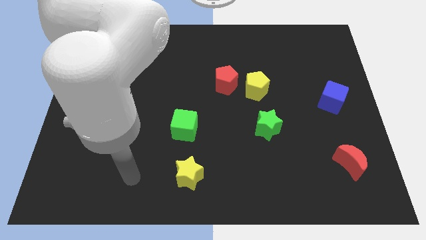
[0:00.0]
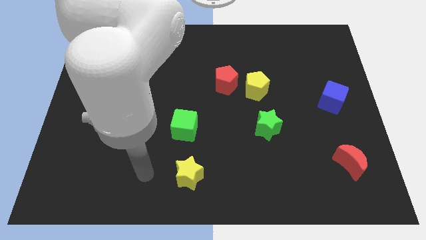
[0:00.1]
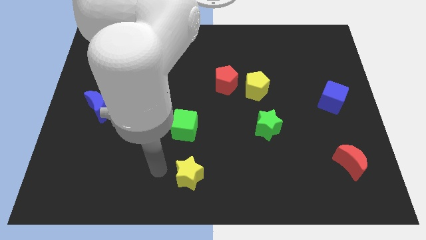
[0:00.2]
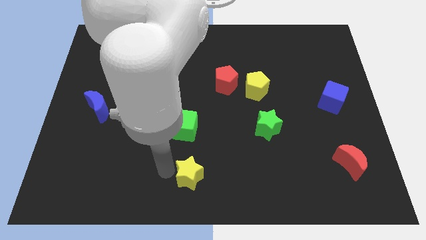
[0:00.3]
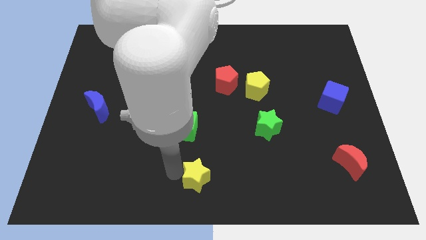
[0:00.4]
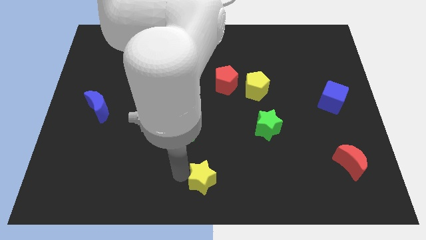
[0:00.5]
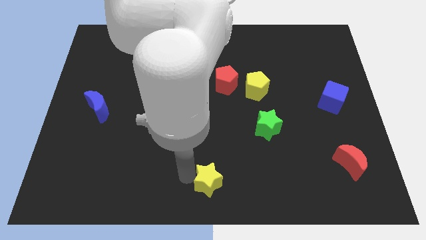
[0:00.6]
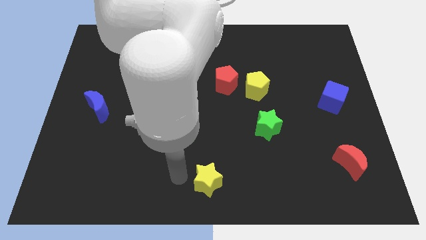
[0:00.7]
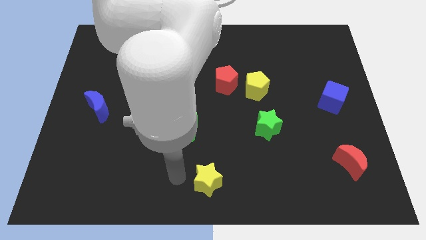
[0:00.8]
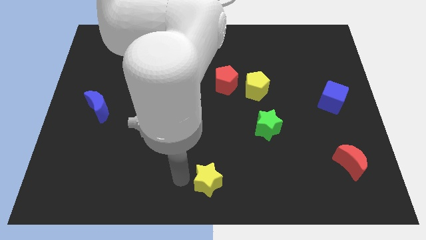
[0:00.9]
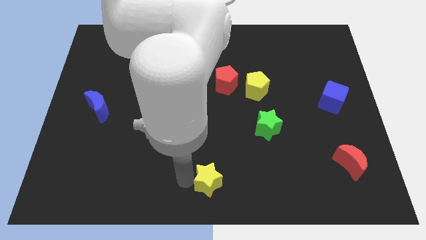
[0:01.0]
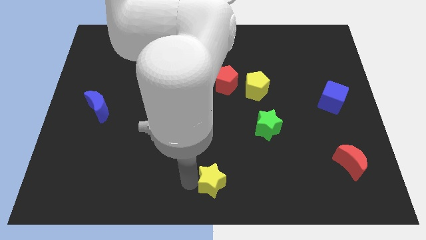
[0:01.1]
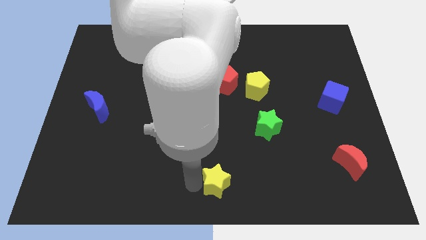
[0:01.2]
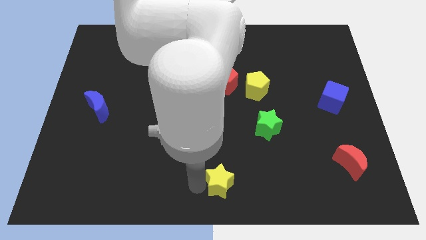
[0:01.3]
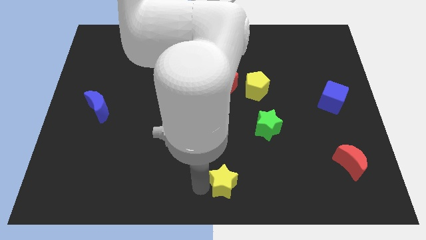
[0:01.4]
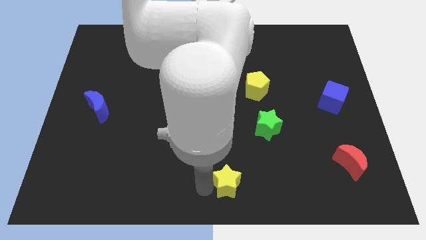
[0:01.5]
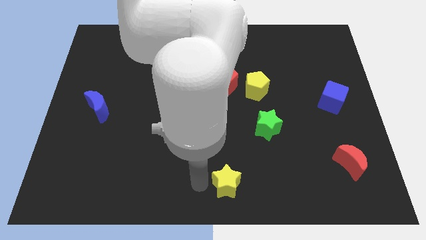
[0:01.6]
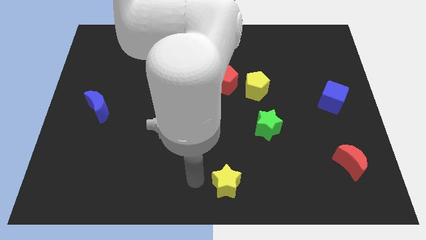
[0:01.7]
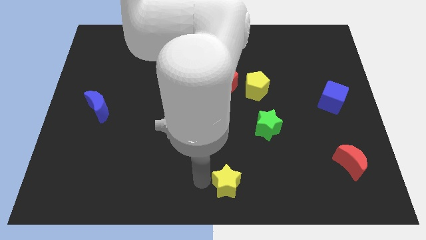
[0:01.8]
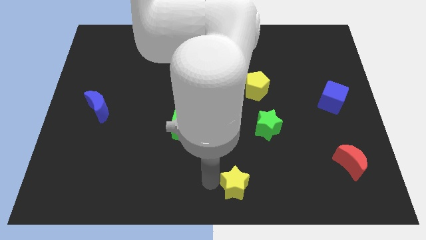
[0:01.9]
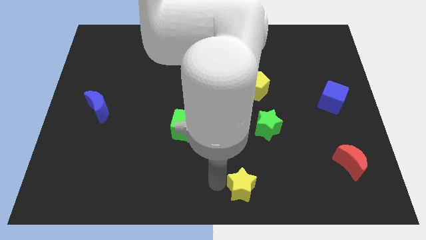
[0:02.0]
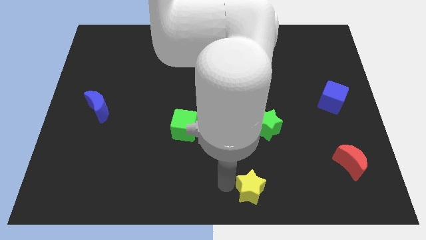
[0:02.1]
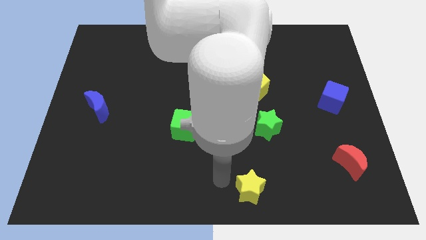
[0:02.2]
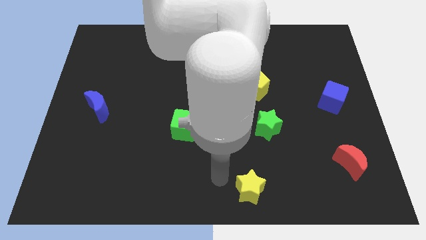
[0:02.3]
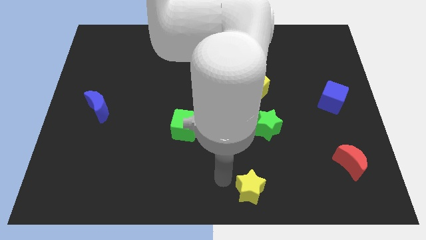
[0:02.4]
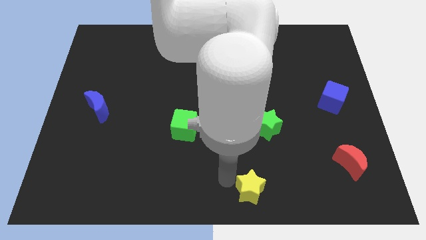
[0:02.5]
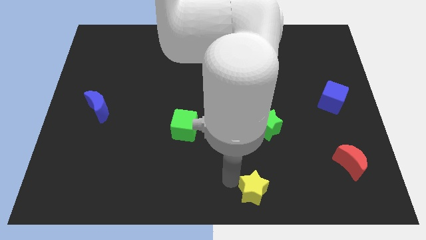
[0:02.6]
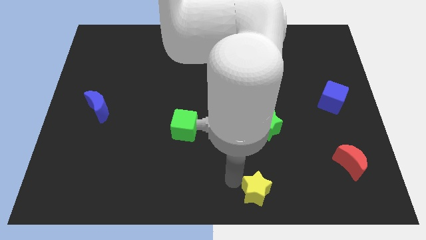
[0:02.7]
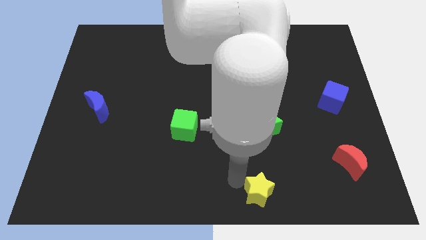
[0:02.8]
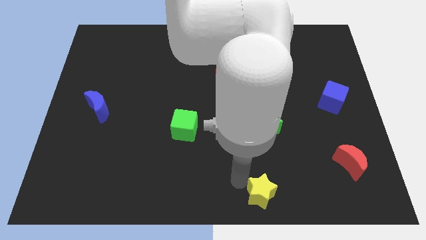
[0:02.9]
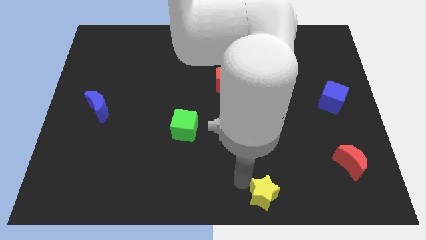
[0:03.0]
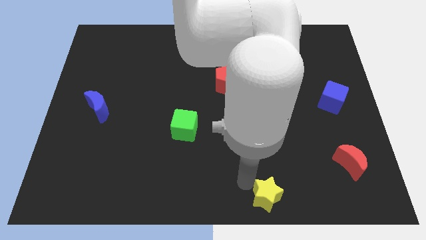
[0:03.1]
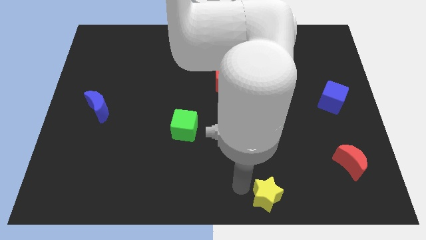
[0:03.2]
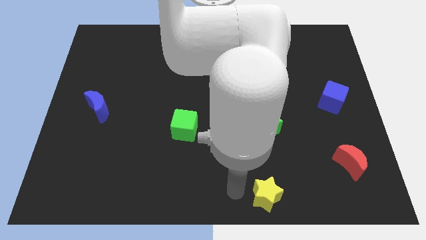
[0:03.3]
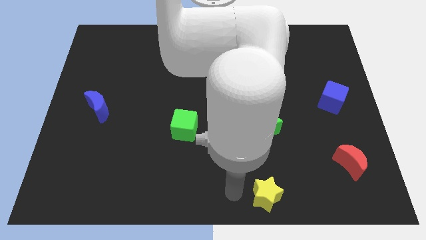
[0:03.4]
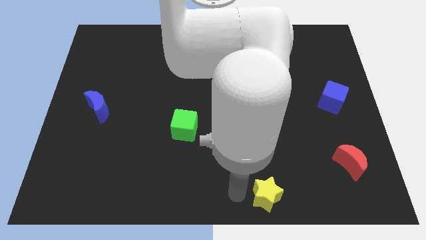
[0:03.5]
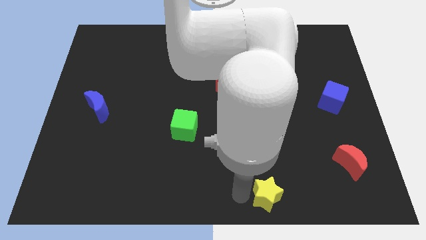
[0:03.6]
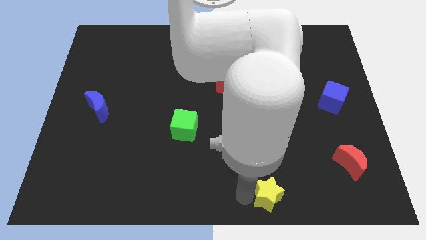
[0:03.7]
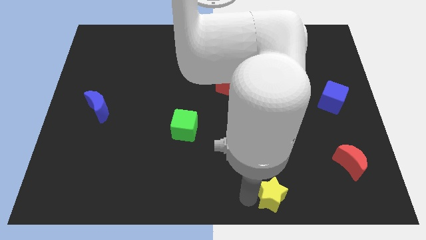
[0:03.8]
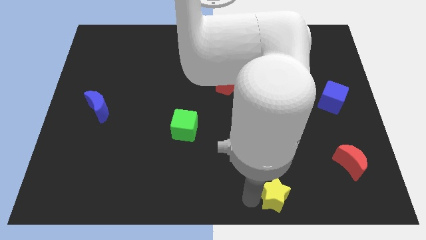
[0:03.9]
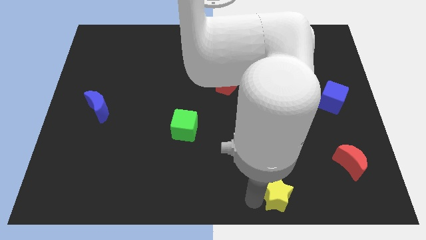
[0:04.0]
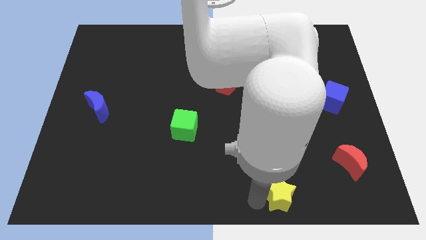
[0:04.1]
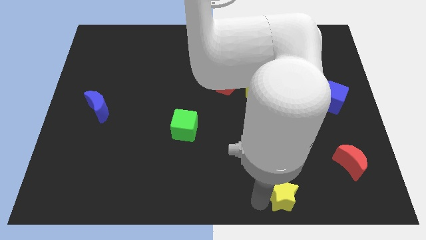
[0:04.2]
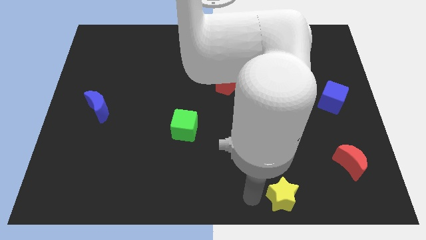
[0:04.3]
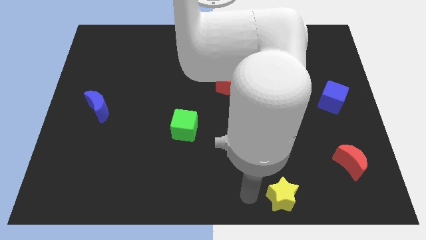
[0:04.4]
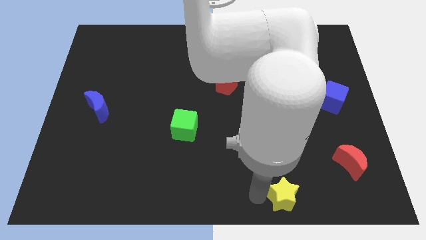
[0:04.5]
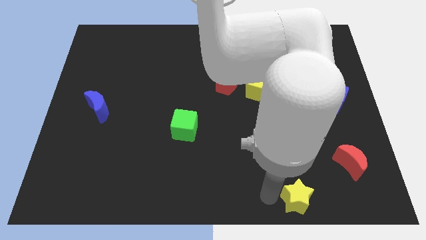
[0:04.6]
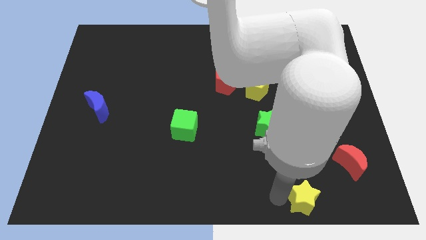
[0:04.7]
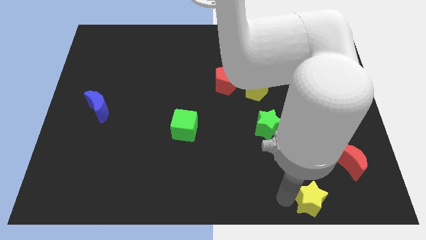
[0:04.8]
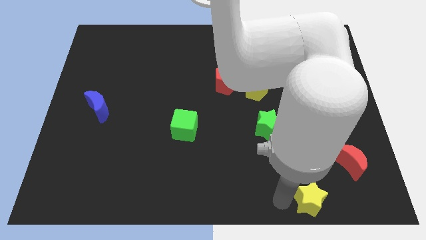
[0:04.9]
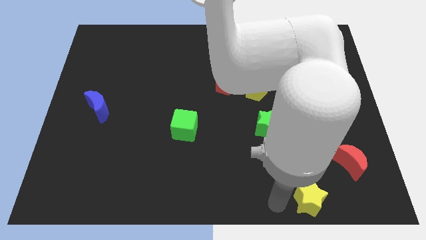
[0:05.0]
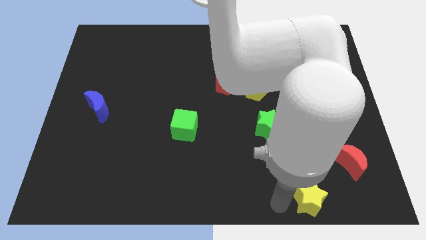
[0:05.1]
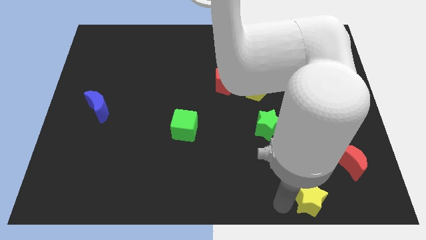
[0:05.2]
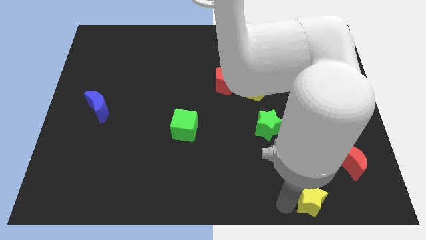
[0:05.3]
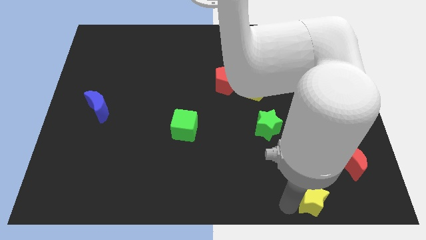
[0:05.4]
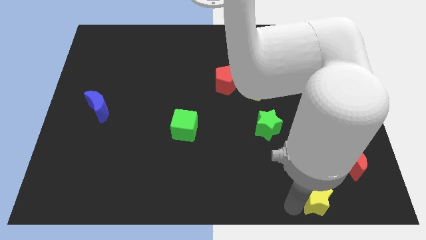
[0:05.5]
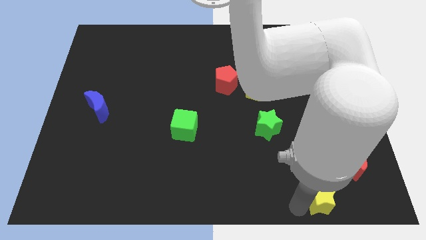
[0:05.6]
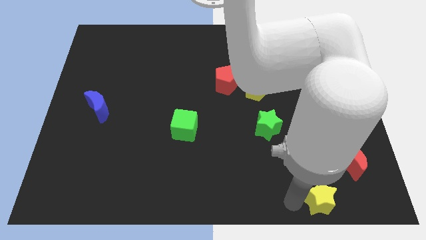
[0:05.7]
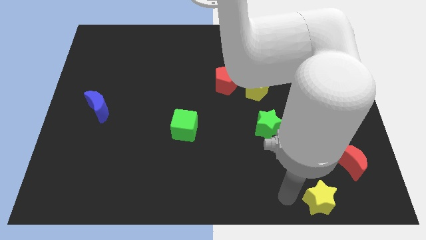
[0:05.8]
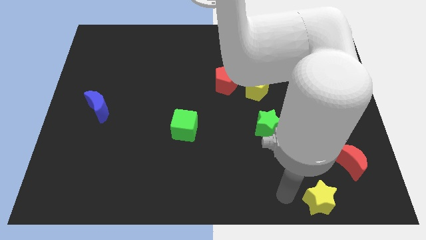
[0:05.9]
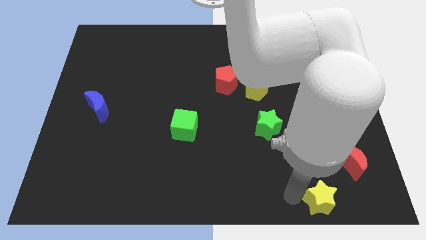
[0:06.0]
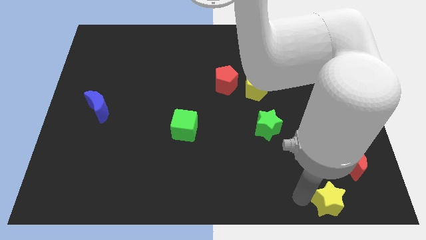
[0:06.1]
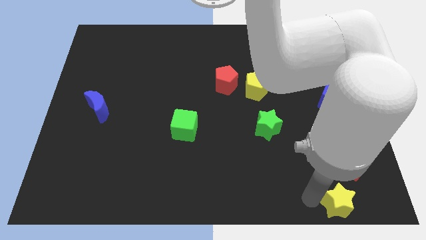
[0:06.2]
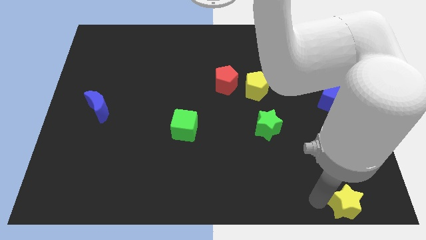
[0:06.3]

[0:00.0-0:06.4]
push the yellow star to the bottom right corner

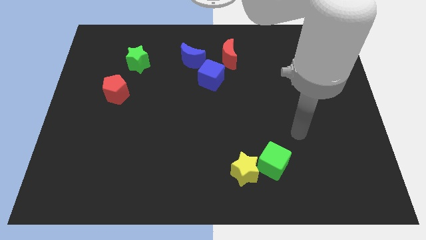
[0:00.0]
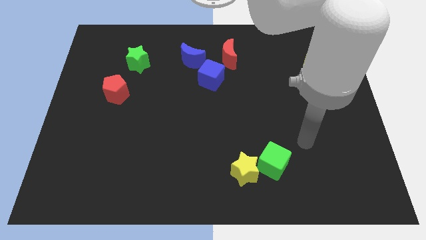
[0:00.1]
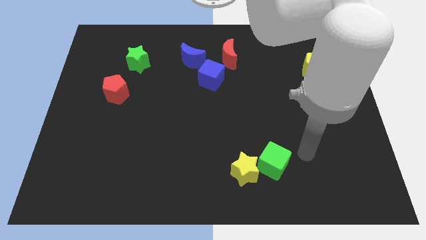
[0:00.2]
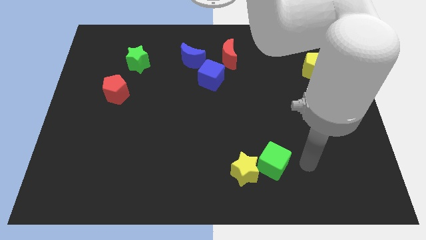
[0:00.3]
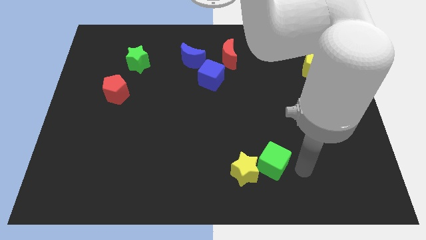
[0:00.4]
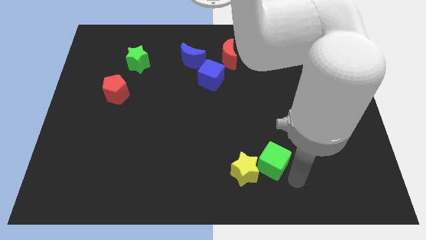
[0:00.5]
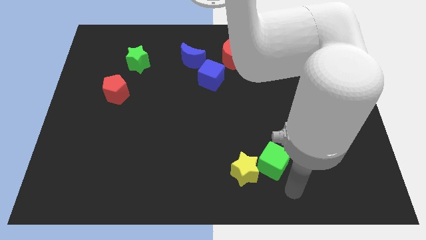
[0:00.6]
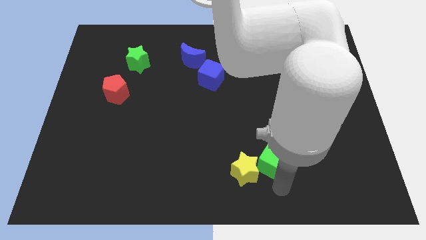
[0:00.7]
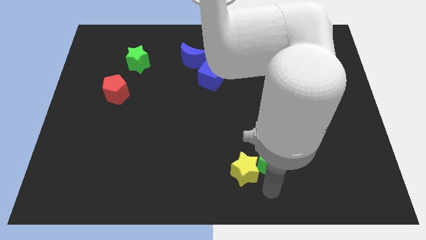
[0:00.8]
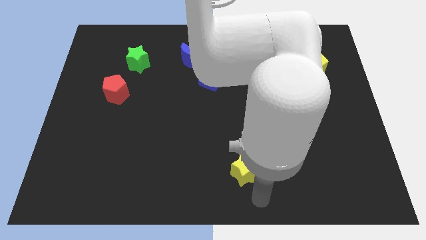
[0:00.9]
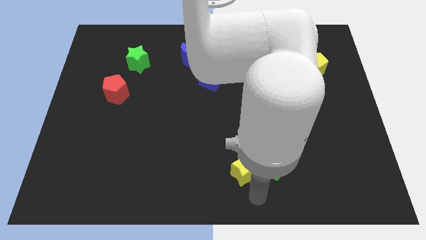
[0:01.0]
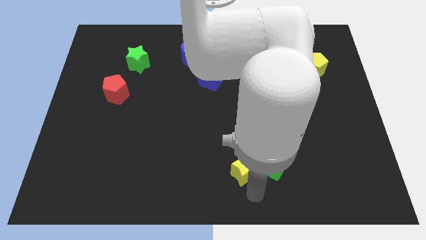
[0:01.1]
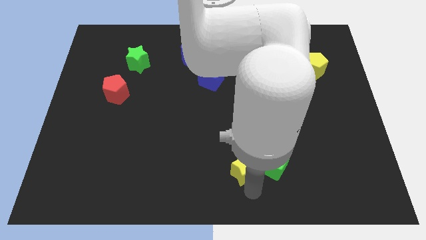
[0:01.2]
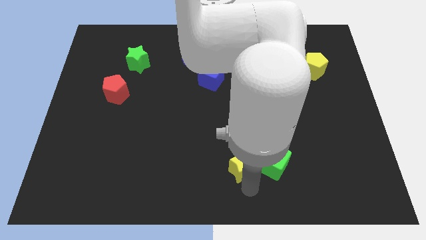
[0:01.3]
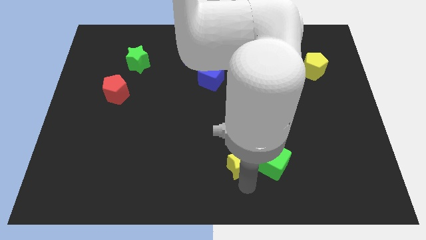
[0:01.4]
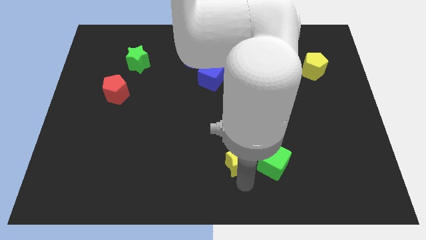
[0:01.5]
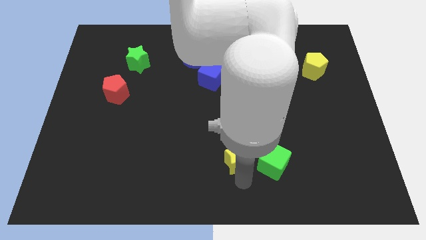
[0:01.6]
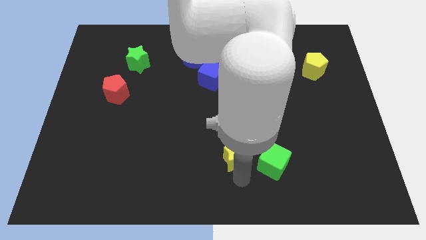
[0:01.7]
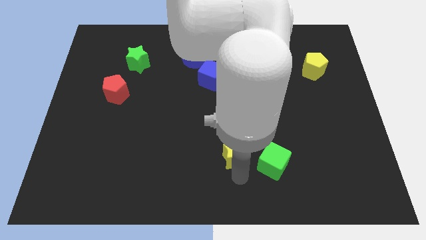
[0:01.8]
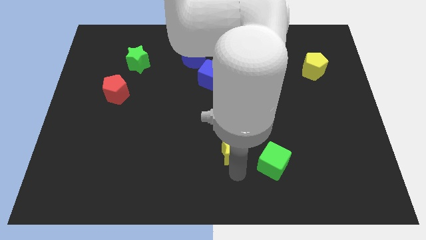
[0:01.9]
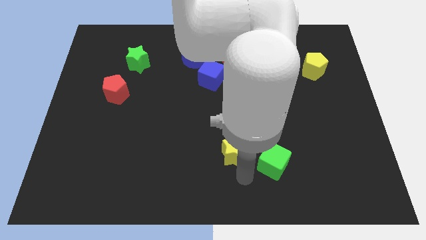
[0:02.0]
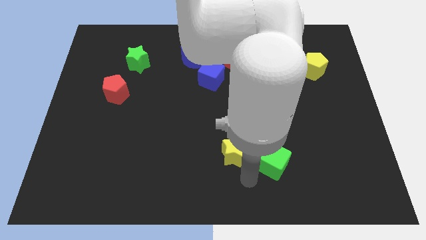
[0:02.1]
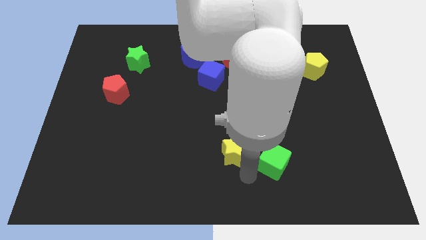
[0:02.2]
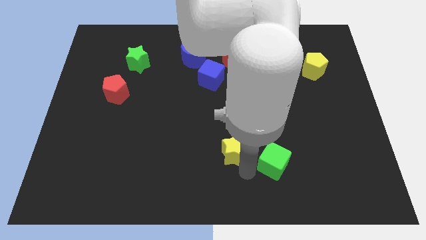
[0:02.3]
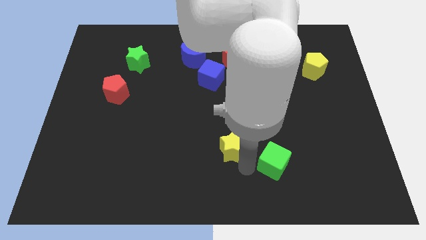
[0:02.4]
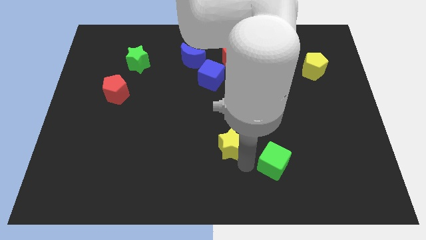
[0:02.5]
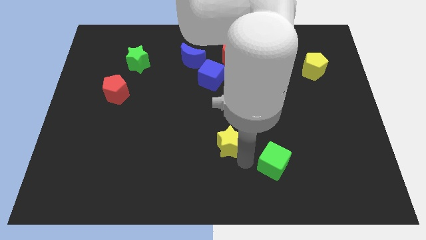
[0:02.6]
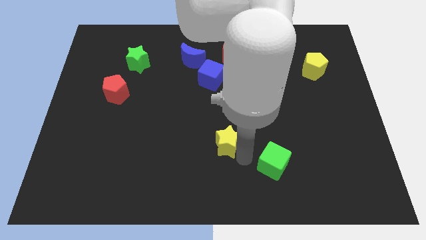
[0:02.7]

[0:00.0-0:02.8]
put the yellow star to the center
